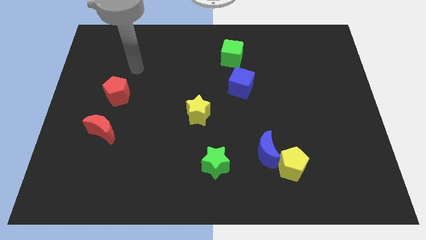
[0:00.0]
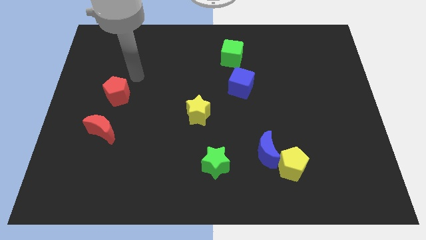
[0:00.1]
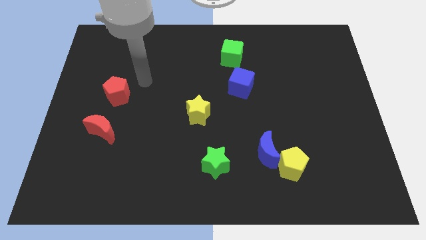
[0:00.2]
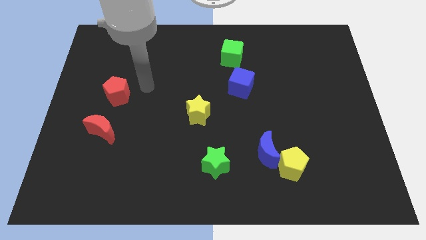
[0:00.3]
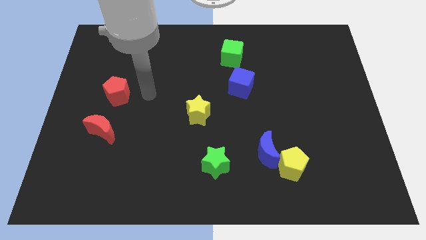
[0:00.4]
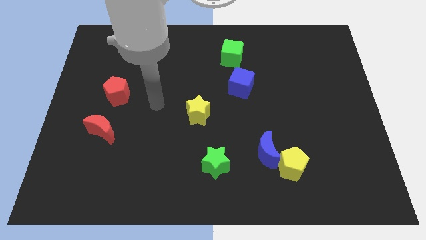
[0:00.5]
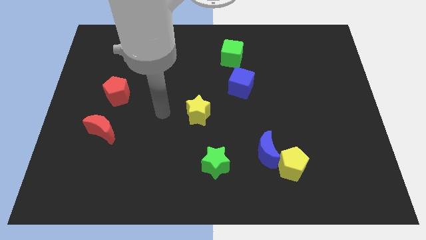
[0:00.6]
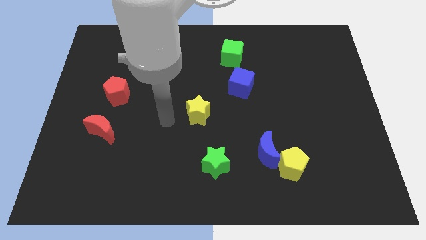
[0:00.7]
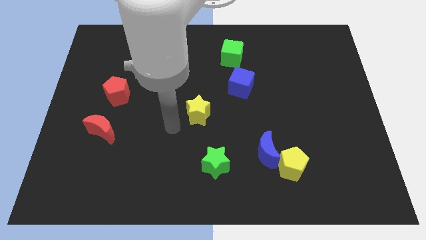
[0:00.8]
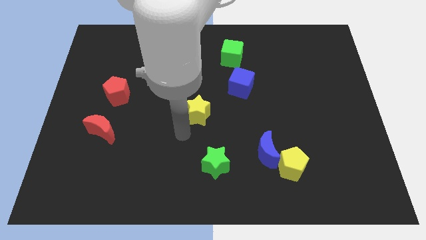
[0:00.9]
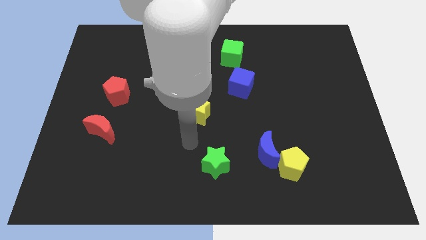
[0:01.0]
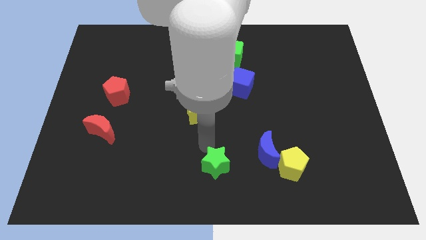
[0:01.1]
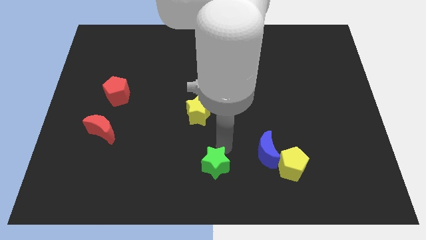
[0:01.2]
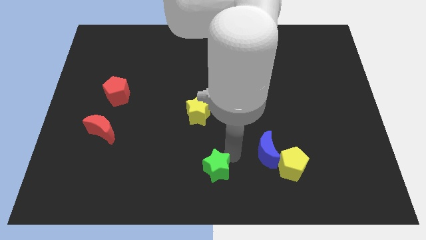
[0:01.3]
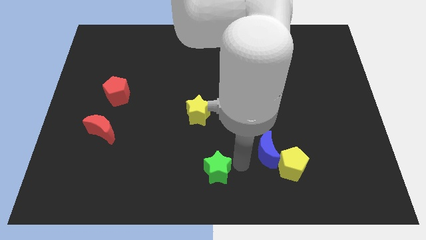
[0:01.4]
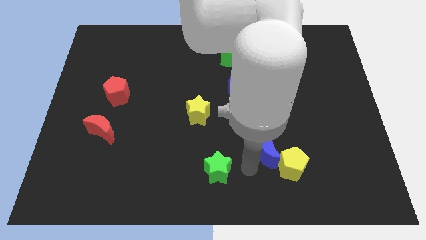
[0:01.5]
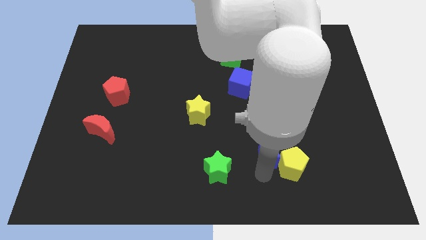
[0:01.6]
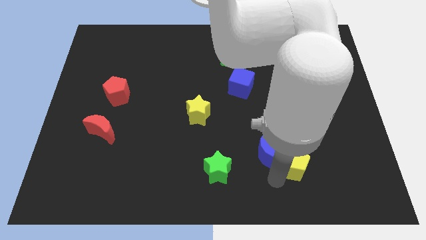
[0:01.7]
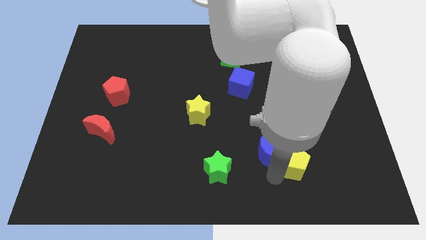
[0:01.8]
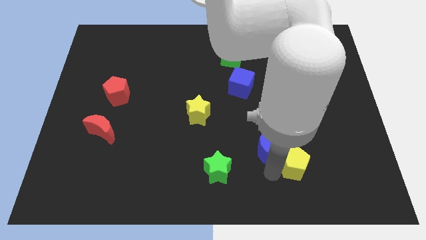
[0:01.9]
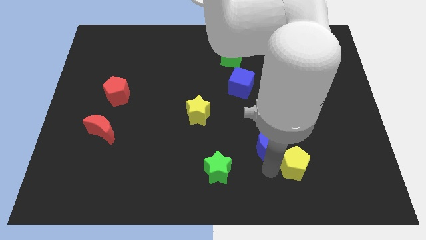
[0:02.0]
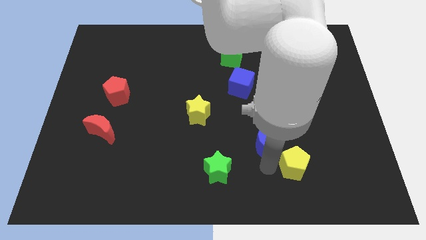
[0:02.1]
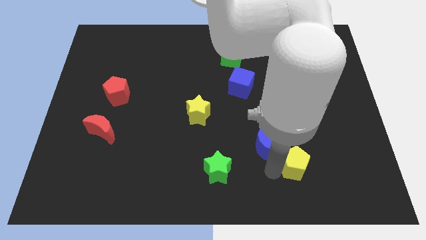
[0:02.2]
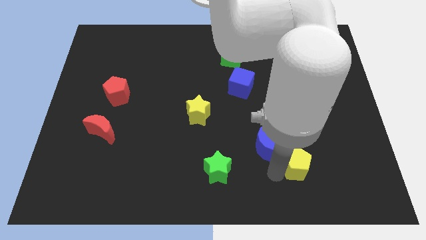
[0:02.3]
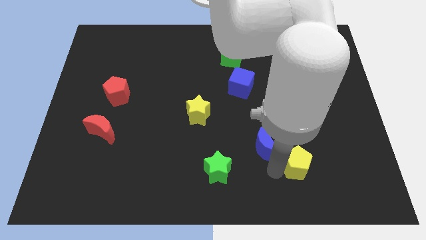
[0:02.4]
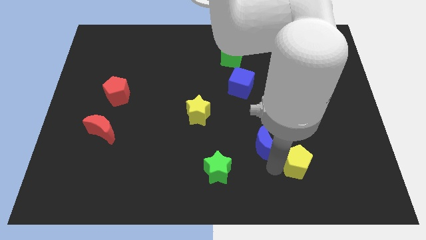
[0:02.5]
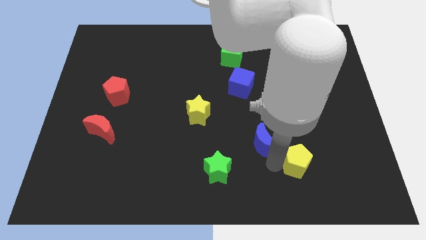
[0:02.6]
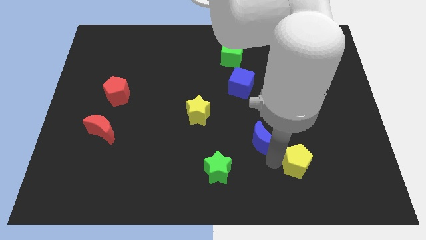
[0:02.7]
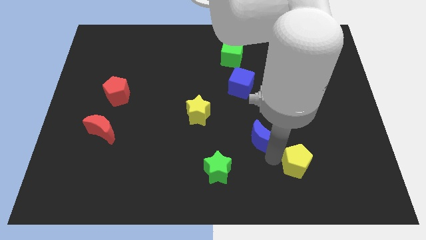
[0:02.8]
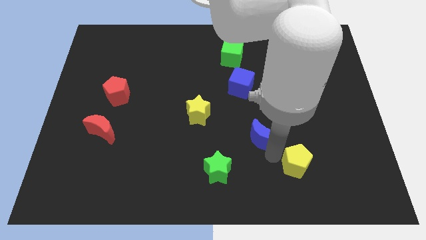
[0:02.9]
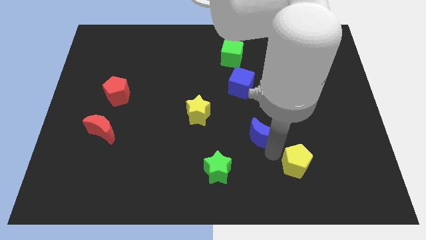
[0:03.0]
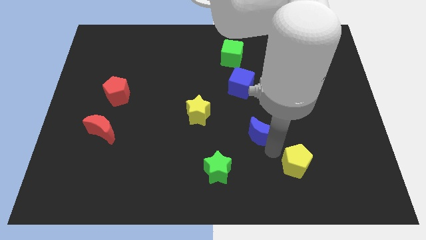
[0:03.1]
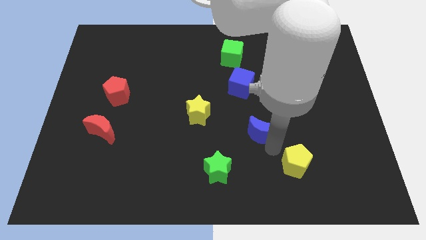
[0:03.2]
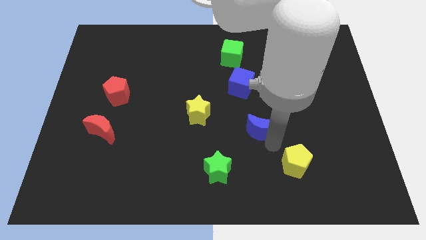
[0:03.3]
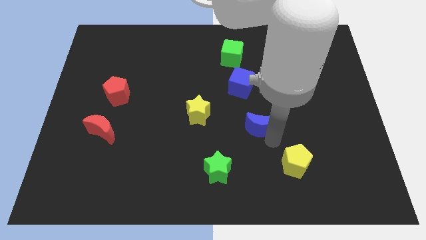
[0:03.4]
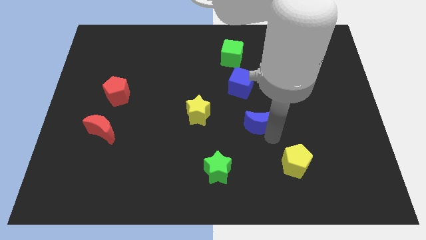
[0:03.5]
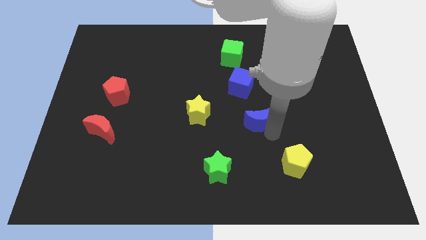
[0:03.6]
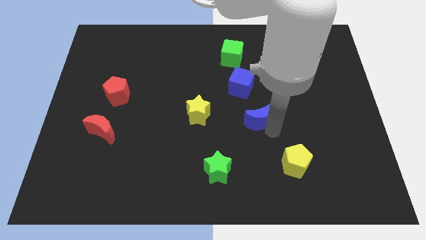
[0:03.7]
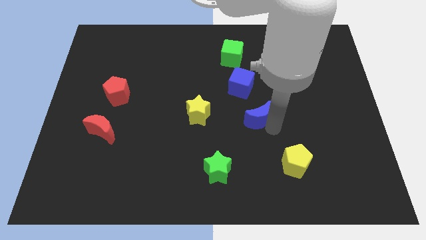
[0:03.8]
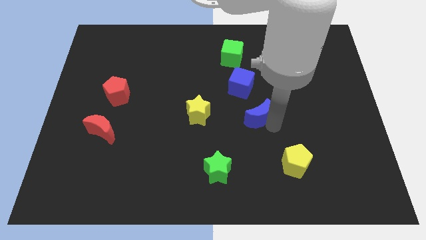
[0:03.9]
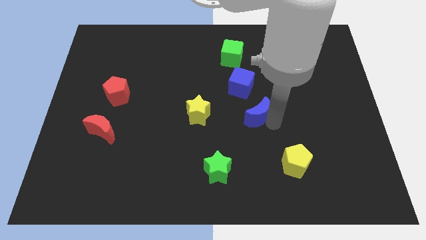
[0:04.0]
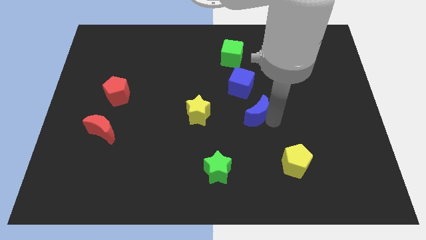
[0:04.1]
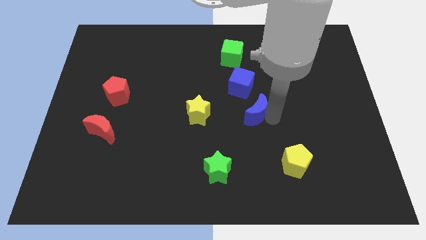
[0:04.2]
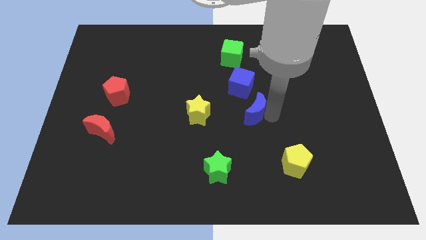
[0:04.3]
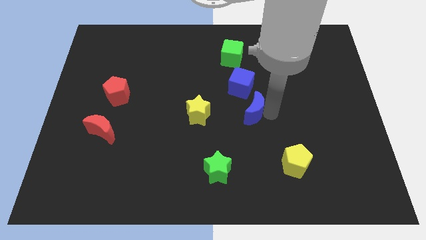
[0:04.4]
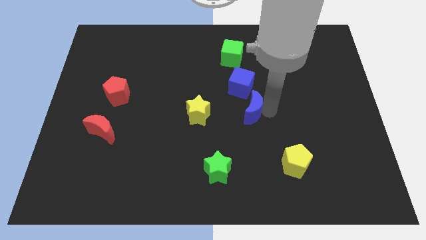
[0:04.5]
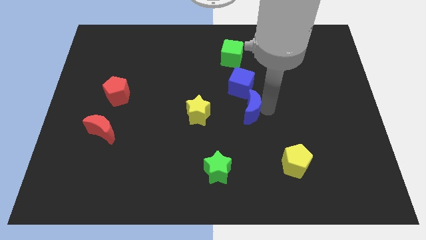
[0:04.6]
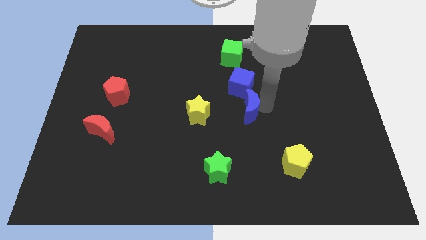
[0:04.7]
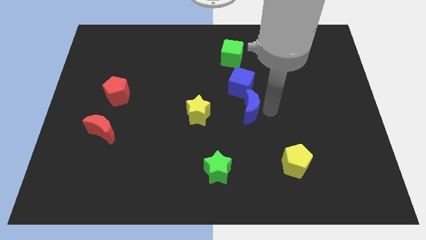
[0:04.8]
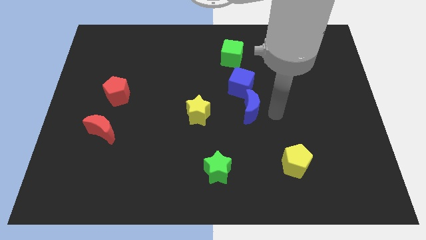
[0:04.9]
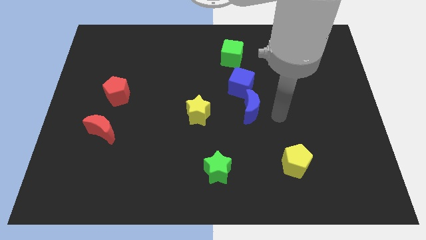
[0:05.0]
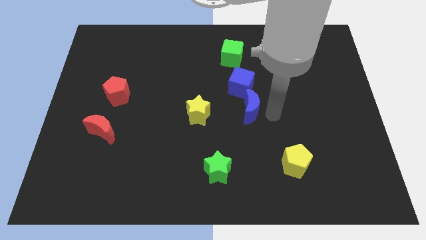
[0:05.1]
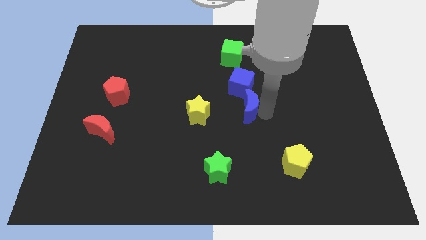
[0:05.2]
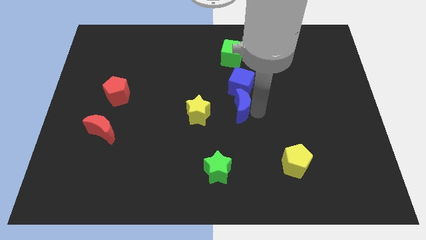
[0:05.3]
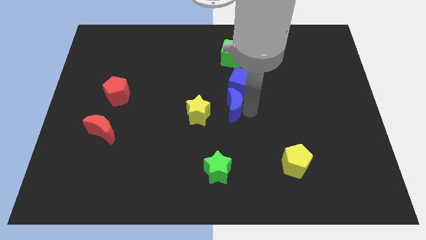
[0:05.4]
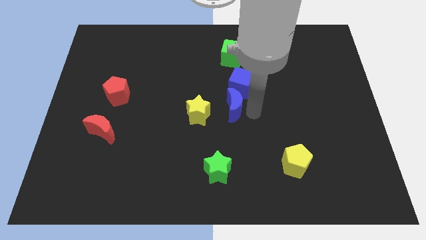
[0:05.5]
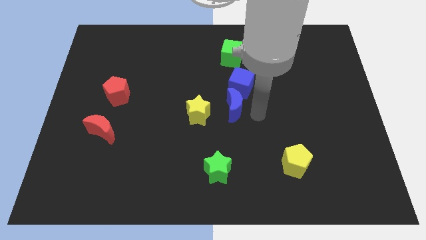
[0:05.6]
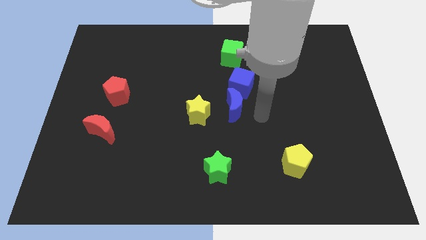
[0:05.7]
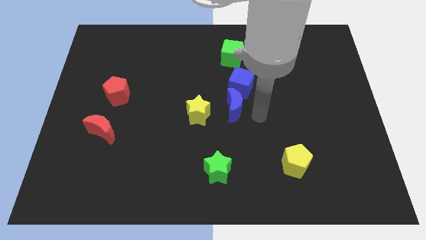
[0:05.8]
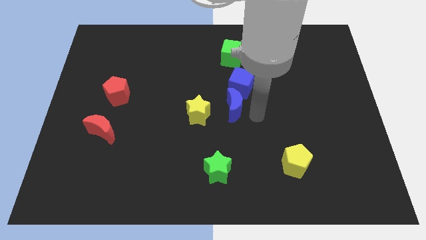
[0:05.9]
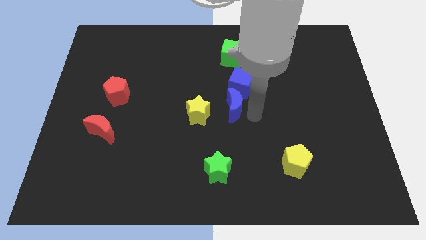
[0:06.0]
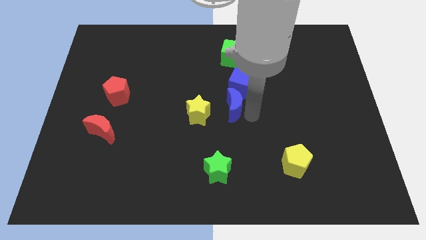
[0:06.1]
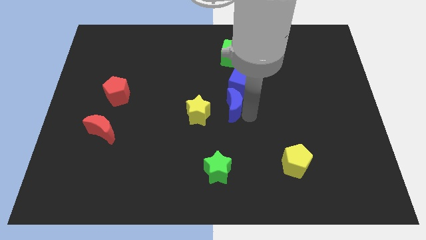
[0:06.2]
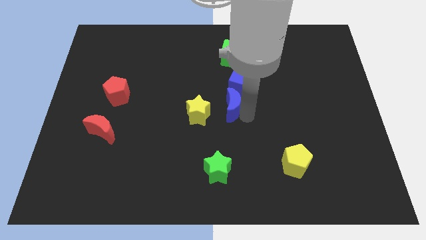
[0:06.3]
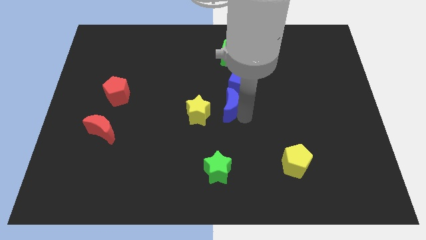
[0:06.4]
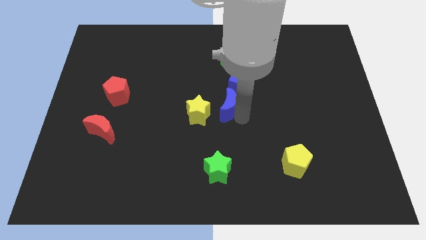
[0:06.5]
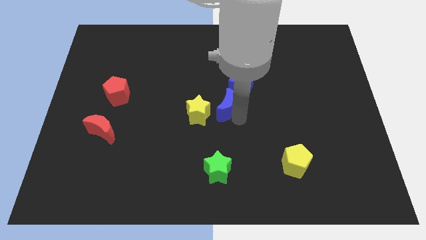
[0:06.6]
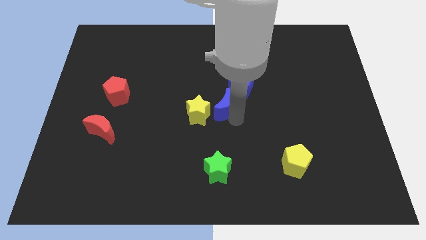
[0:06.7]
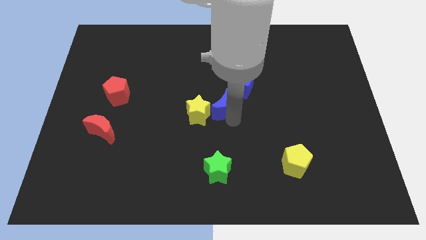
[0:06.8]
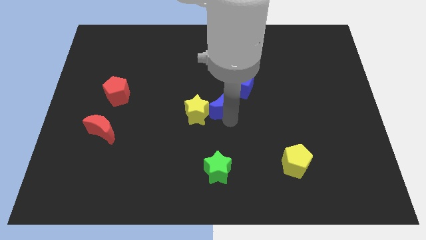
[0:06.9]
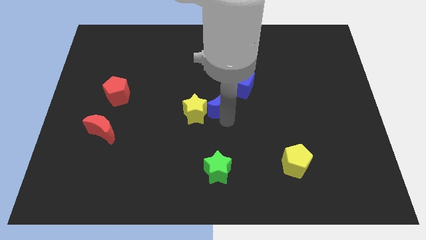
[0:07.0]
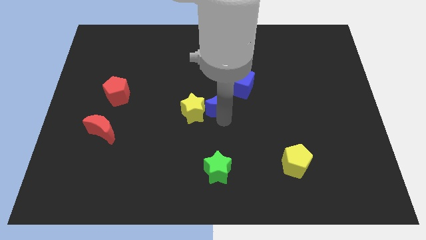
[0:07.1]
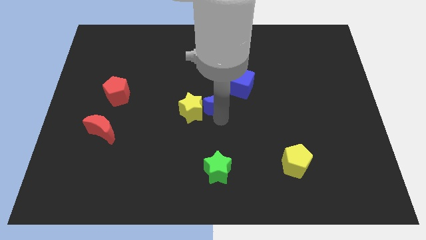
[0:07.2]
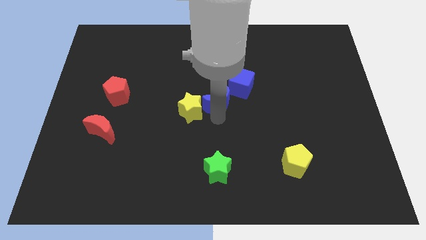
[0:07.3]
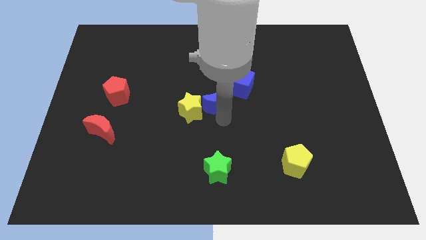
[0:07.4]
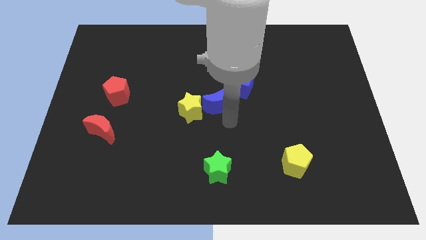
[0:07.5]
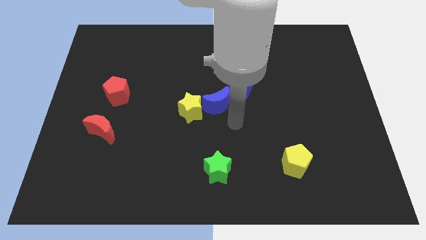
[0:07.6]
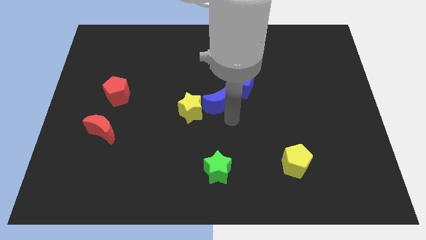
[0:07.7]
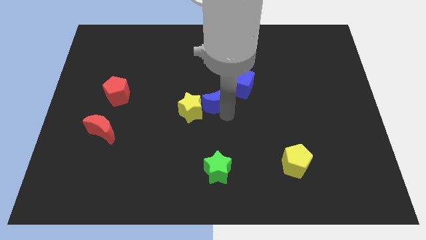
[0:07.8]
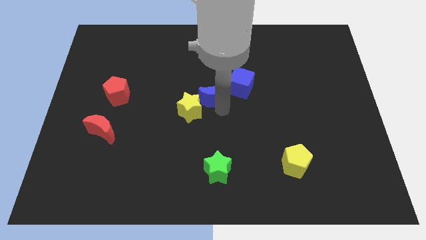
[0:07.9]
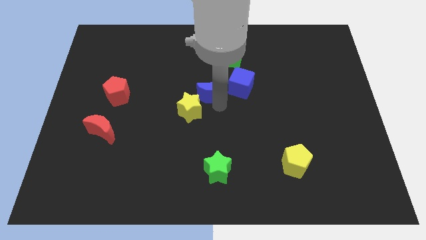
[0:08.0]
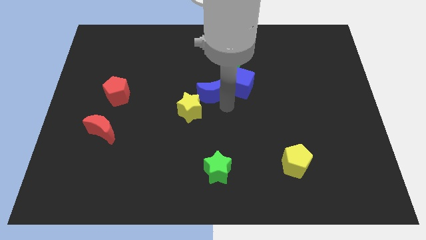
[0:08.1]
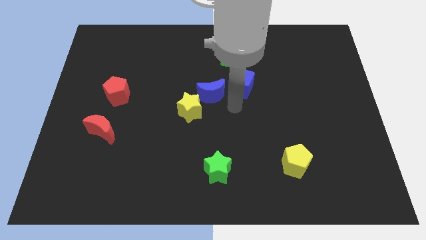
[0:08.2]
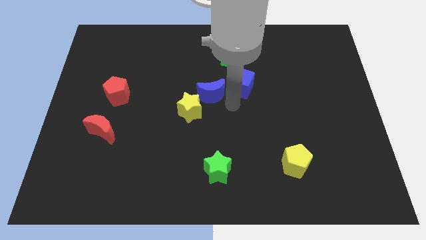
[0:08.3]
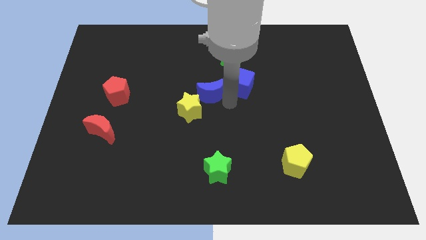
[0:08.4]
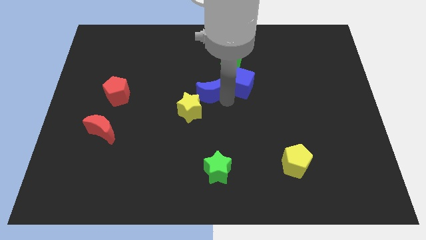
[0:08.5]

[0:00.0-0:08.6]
move the blue moon up and left
